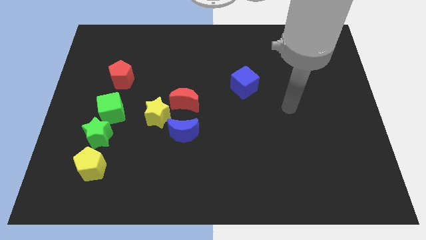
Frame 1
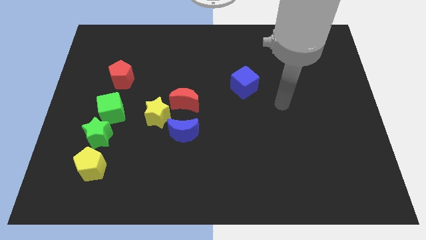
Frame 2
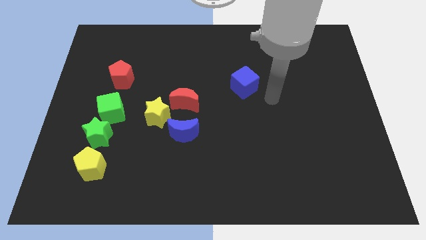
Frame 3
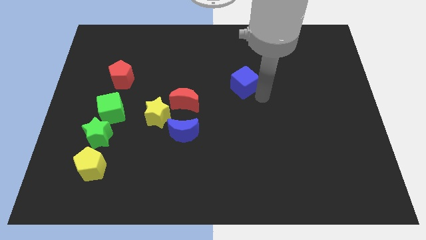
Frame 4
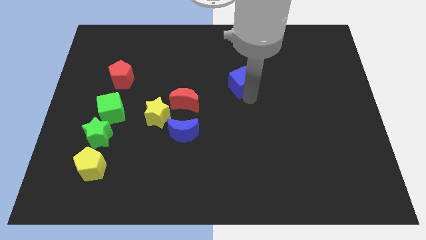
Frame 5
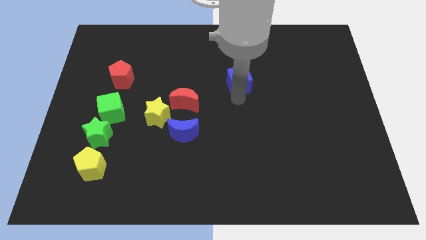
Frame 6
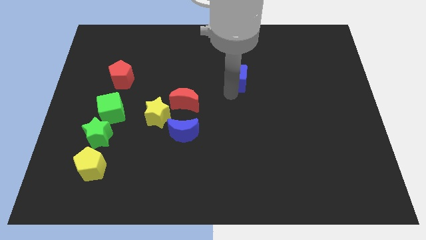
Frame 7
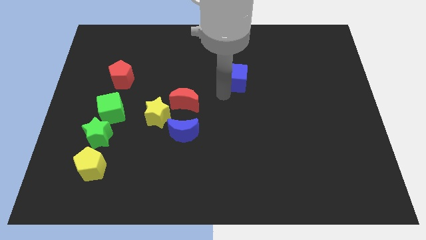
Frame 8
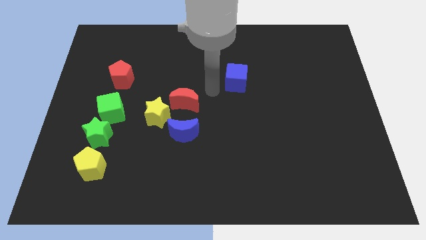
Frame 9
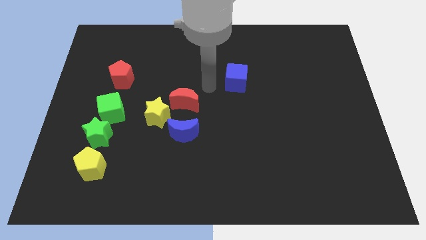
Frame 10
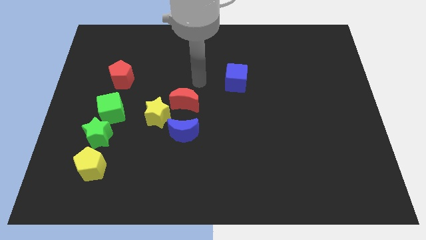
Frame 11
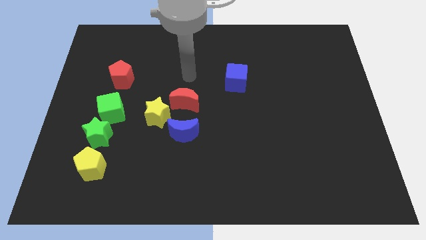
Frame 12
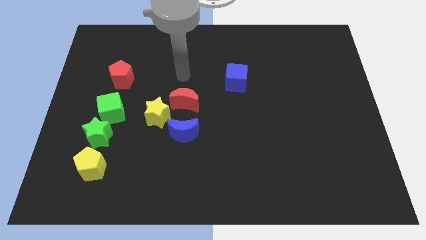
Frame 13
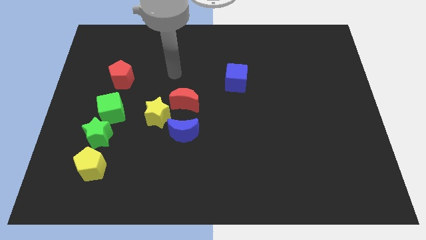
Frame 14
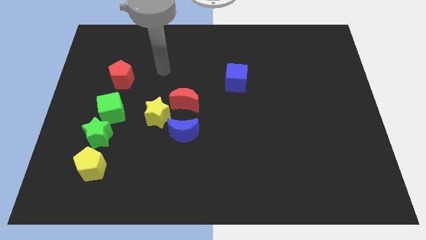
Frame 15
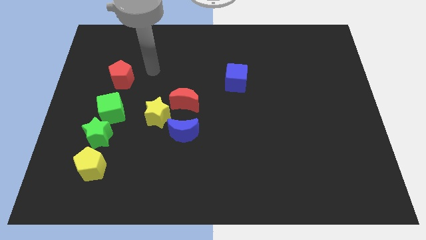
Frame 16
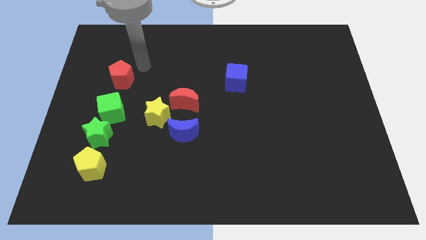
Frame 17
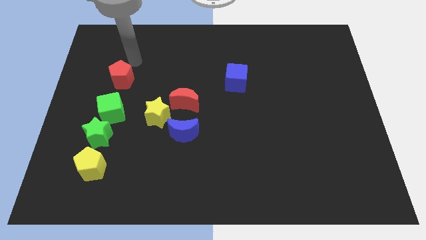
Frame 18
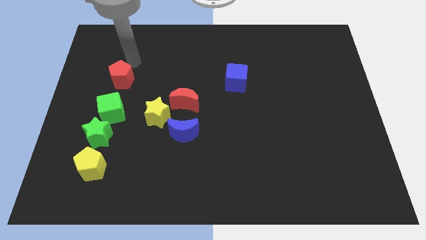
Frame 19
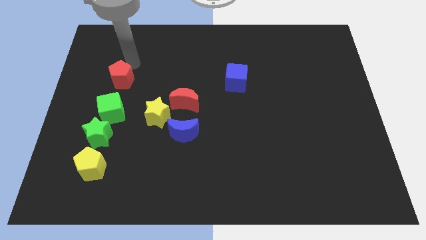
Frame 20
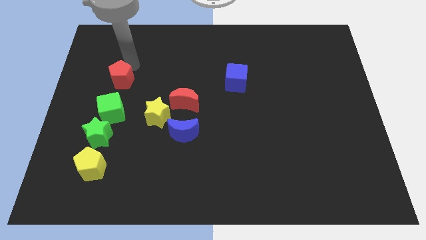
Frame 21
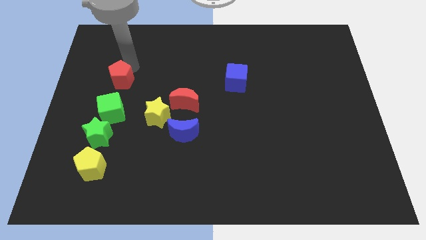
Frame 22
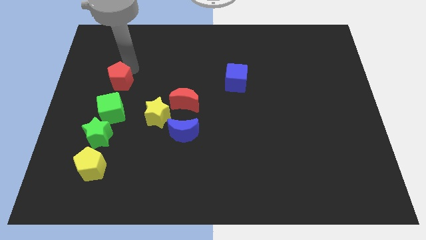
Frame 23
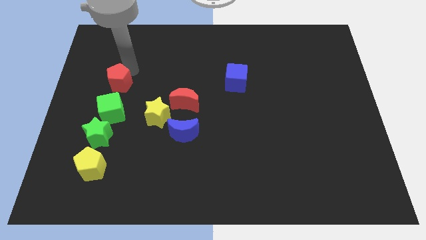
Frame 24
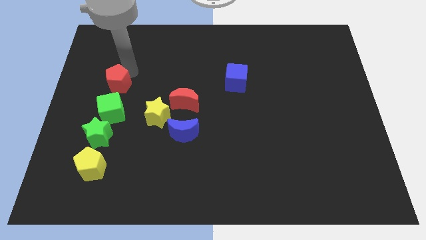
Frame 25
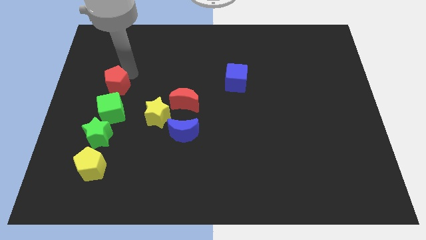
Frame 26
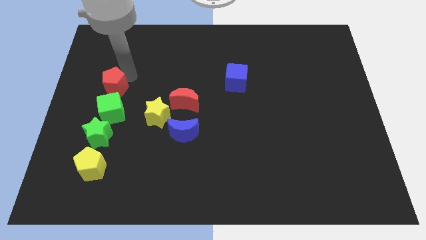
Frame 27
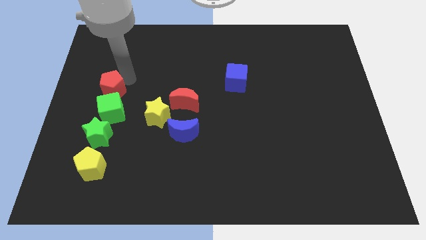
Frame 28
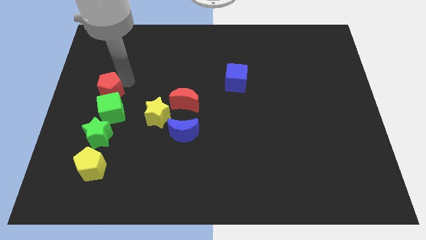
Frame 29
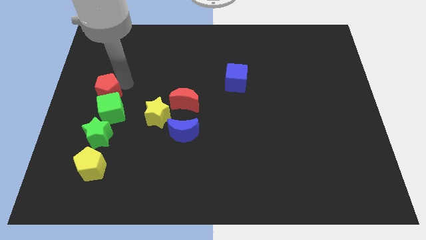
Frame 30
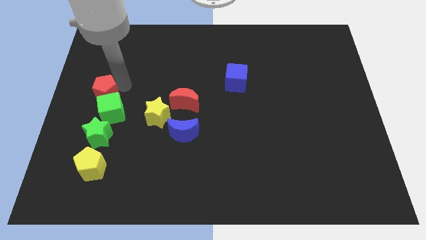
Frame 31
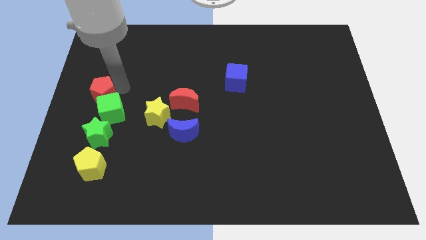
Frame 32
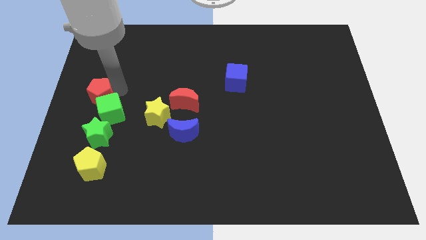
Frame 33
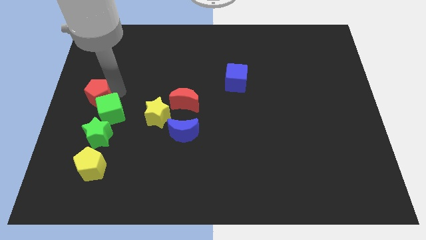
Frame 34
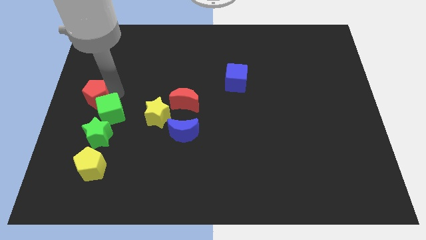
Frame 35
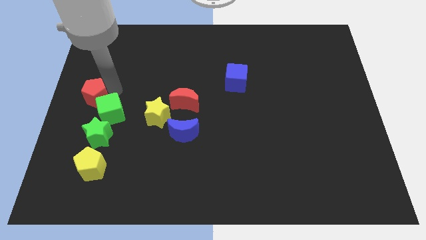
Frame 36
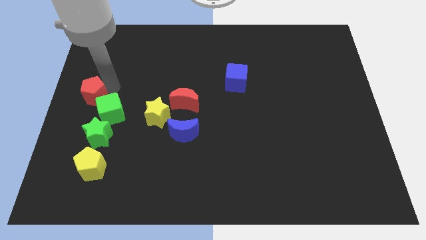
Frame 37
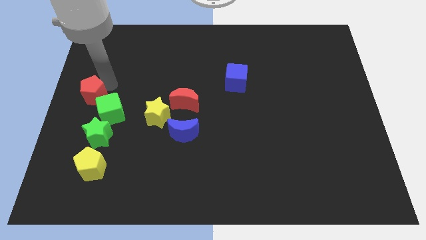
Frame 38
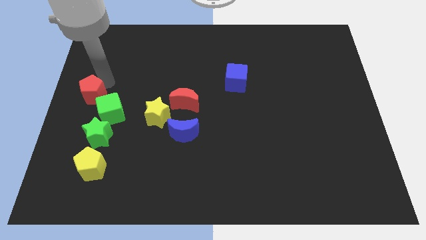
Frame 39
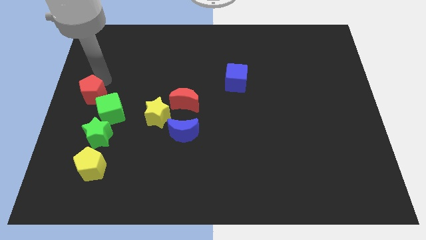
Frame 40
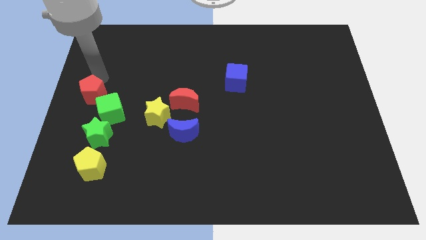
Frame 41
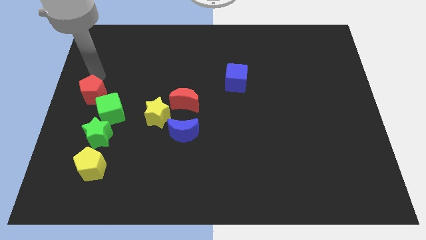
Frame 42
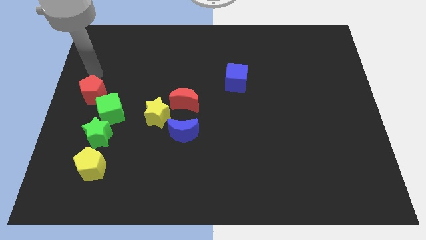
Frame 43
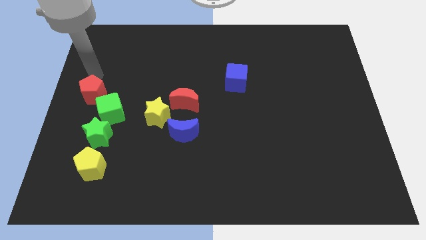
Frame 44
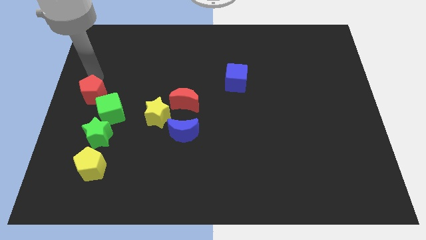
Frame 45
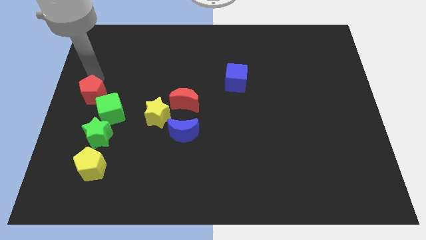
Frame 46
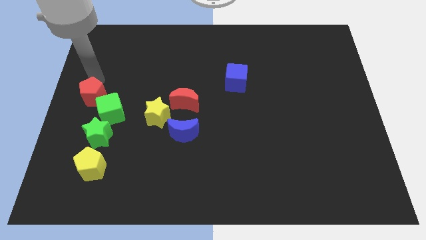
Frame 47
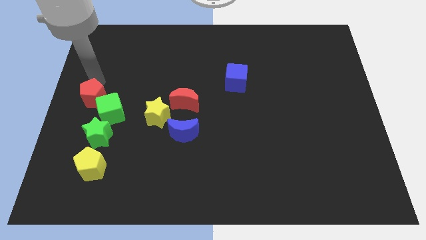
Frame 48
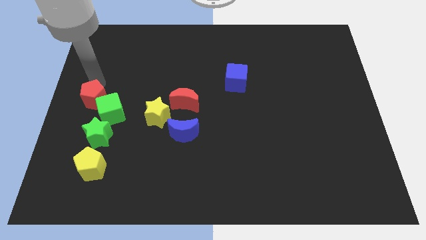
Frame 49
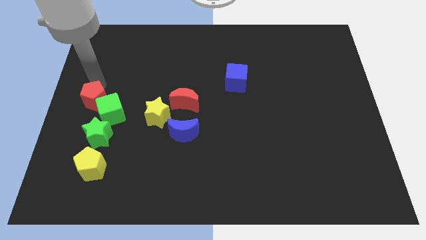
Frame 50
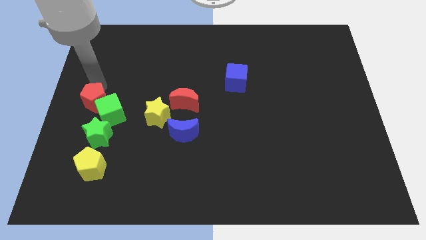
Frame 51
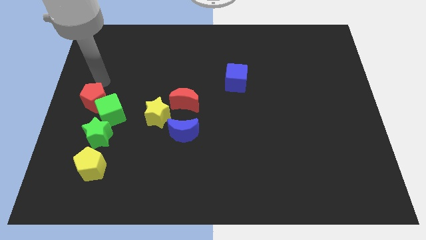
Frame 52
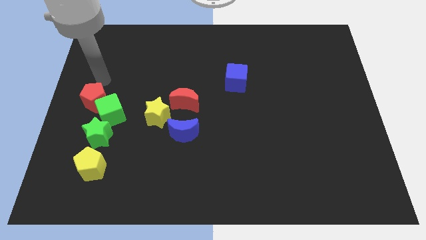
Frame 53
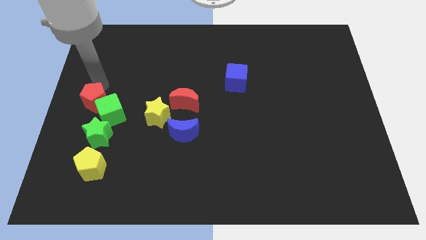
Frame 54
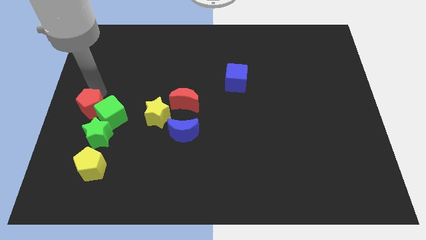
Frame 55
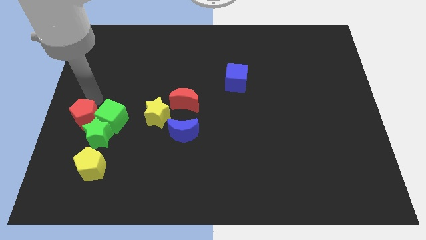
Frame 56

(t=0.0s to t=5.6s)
push the red pentagon to the bottom left of the green cube

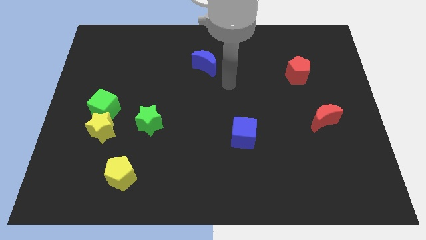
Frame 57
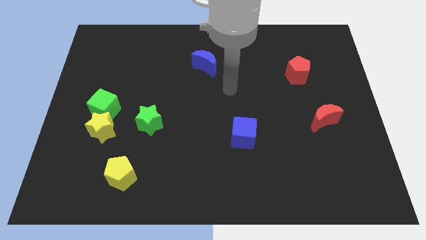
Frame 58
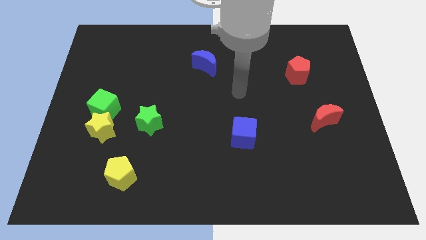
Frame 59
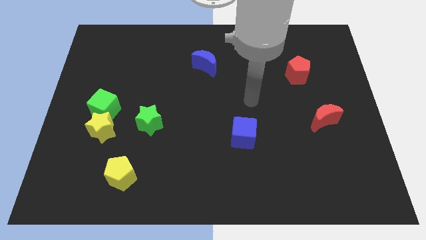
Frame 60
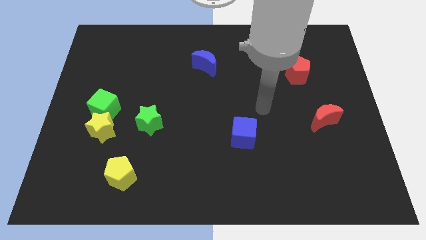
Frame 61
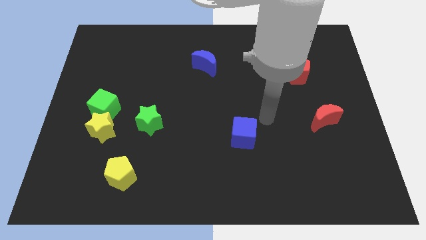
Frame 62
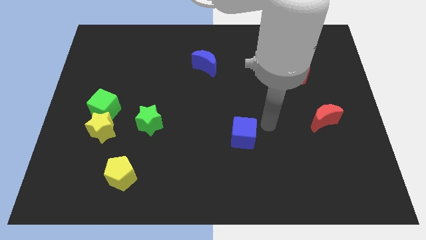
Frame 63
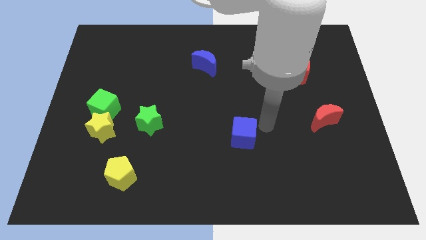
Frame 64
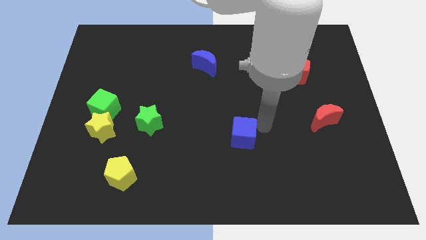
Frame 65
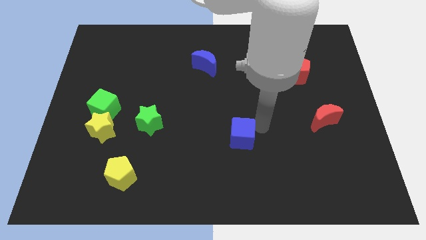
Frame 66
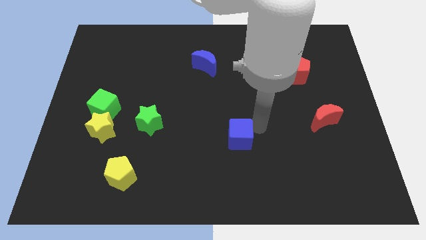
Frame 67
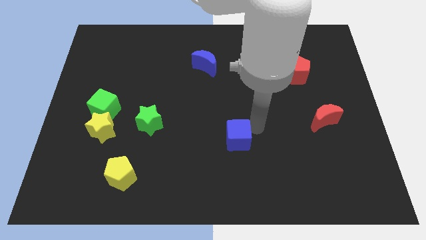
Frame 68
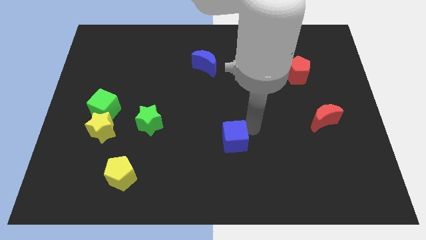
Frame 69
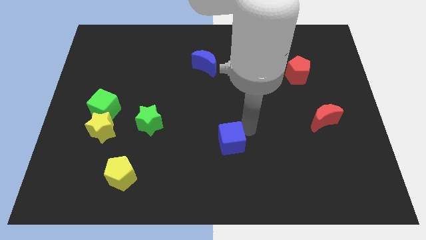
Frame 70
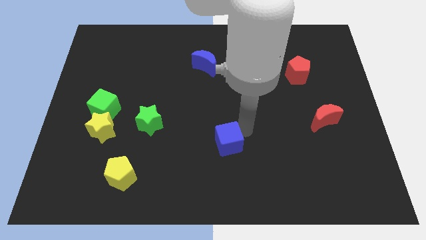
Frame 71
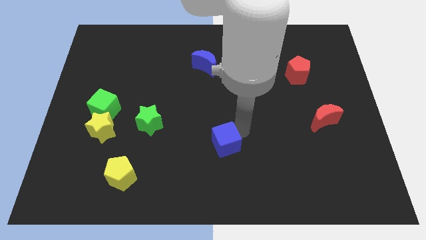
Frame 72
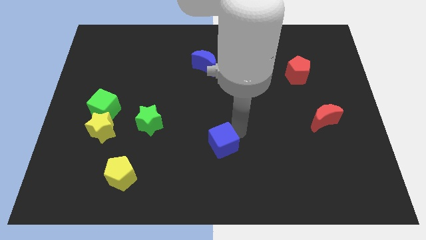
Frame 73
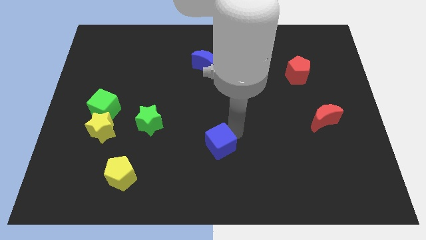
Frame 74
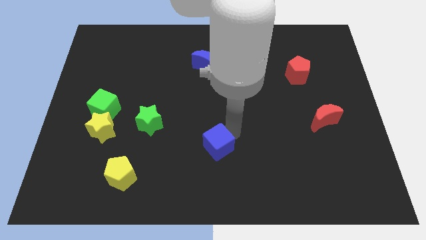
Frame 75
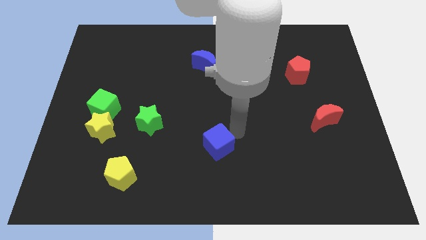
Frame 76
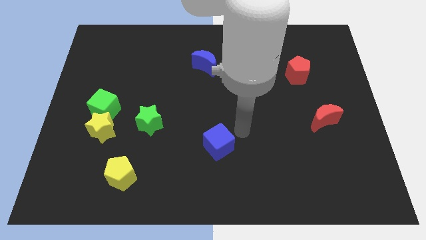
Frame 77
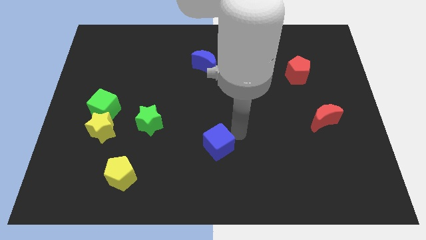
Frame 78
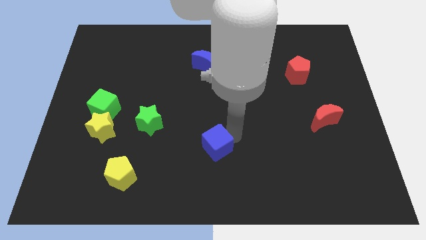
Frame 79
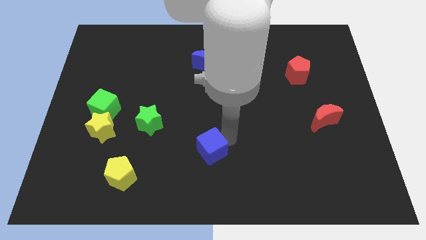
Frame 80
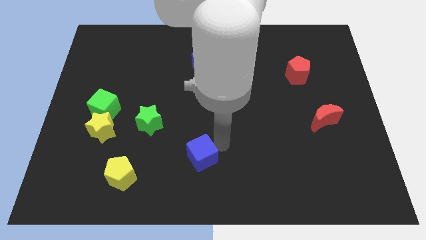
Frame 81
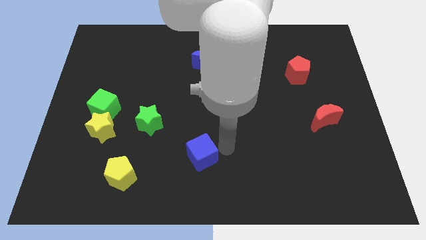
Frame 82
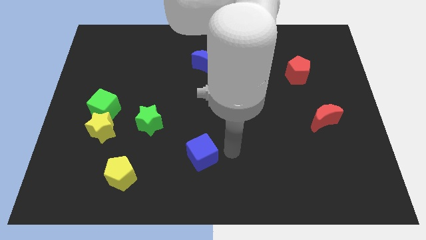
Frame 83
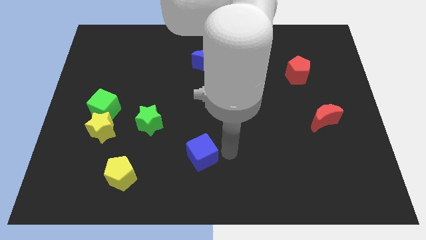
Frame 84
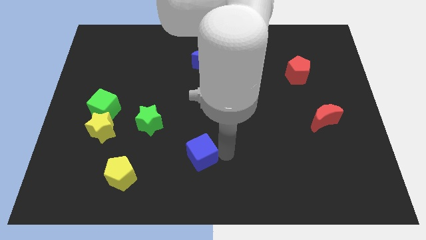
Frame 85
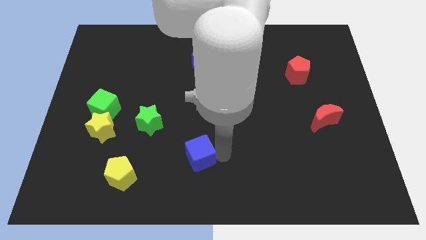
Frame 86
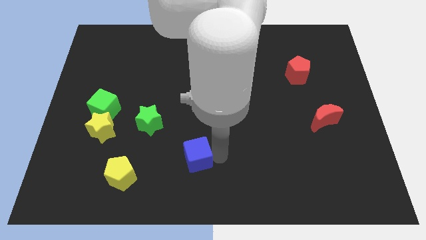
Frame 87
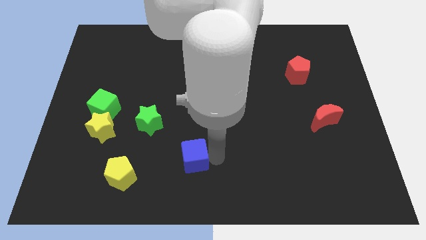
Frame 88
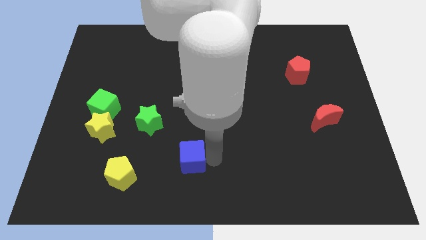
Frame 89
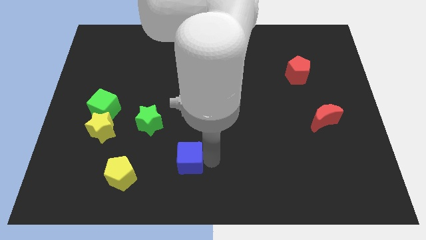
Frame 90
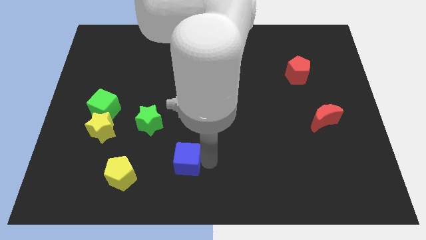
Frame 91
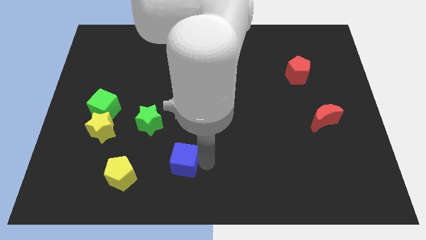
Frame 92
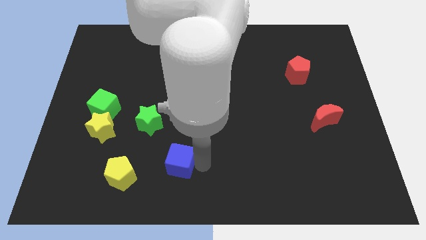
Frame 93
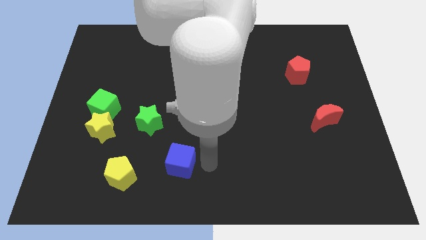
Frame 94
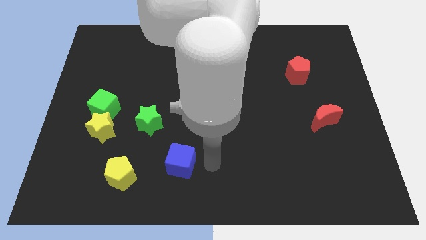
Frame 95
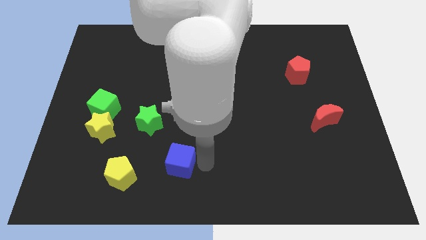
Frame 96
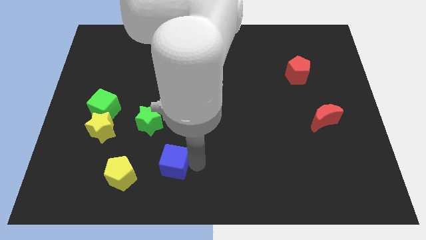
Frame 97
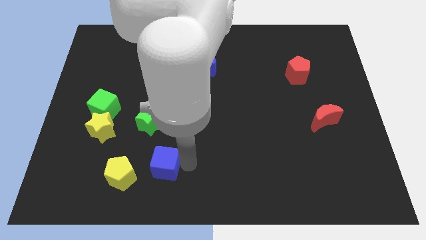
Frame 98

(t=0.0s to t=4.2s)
put the blue cube to the bottom of the green star
